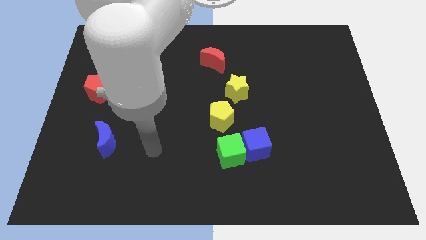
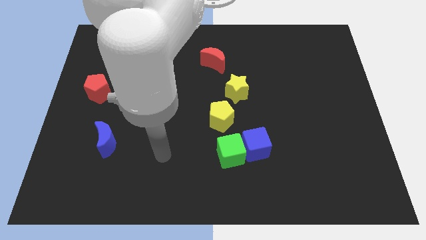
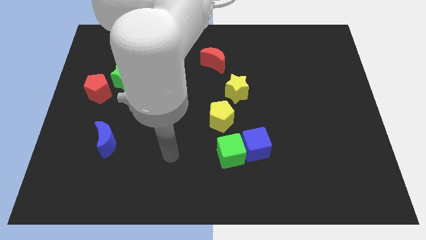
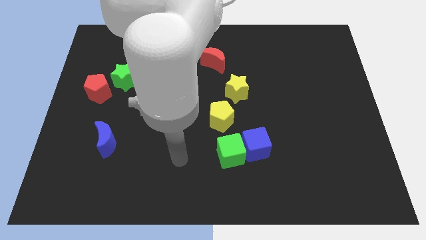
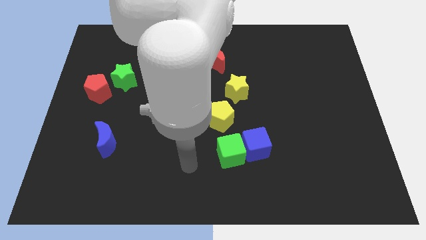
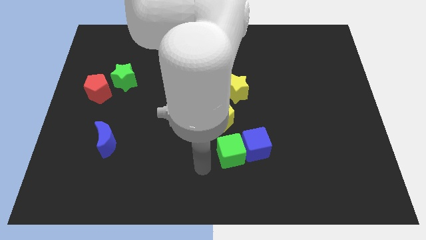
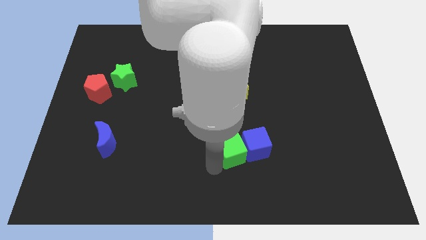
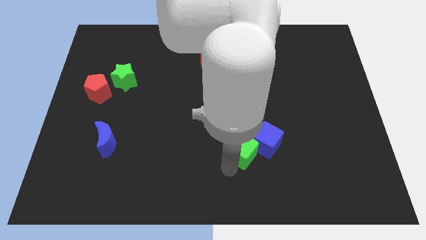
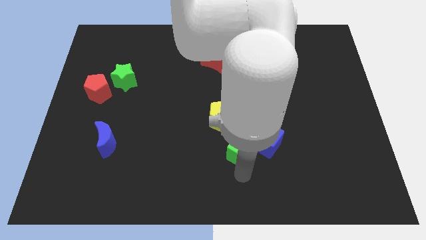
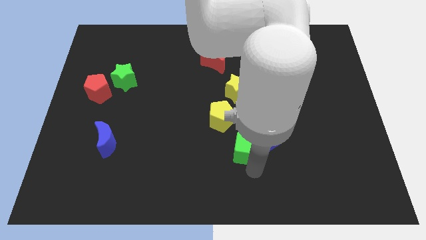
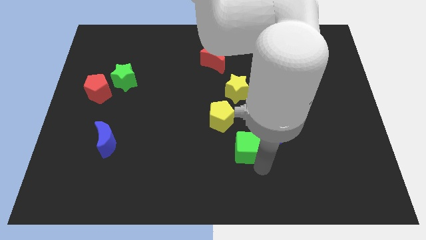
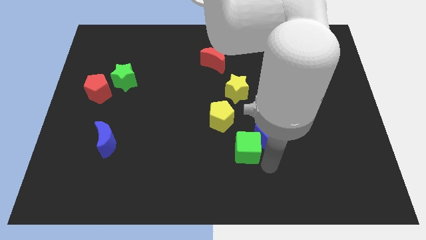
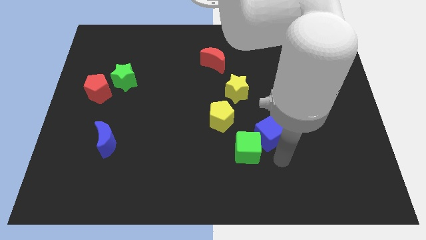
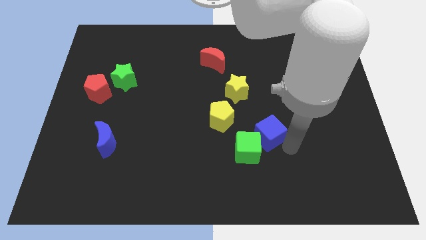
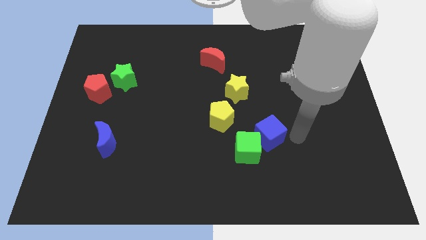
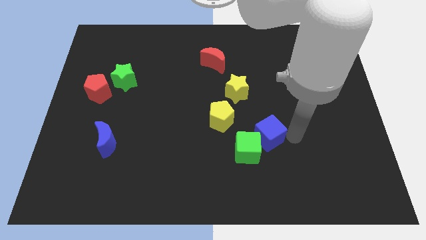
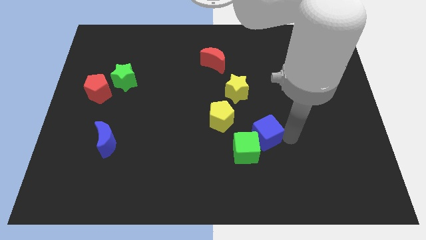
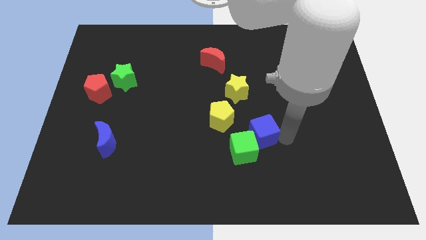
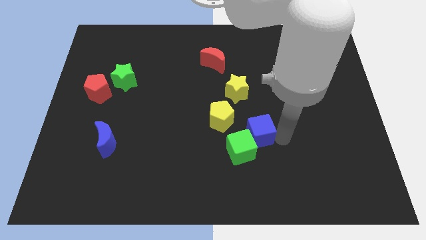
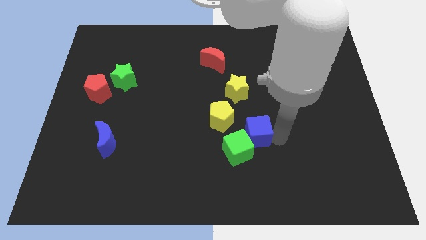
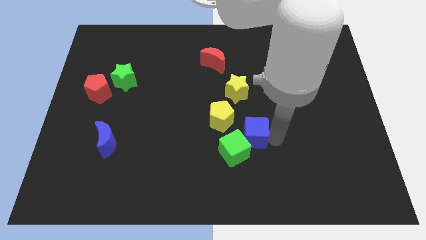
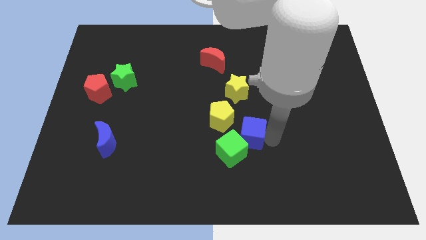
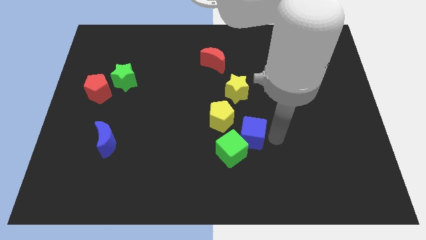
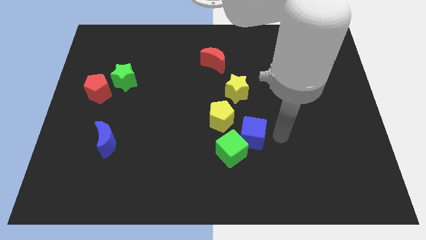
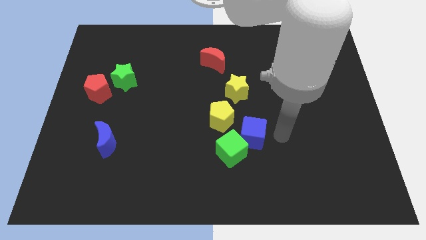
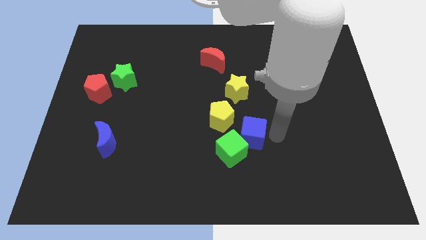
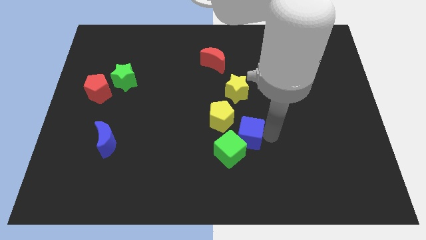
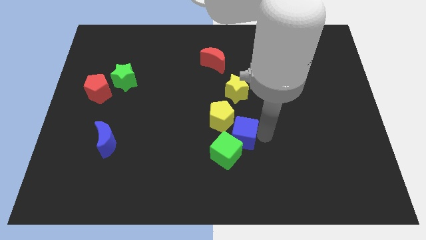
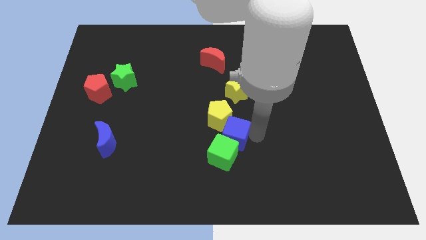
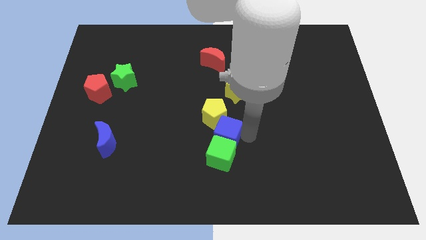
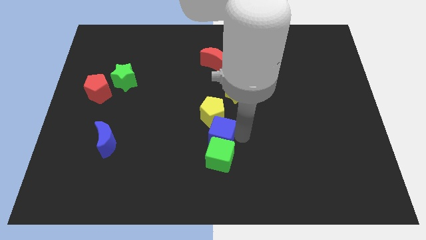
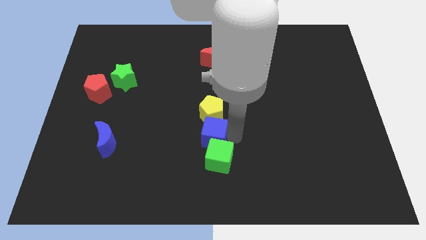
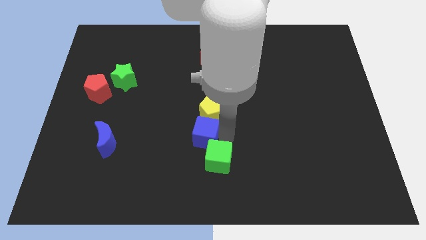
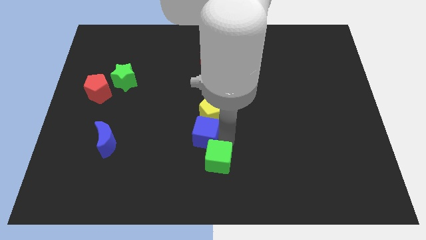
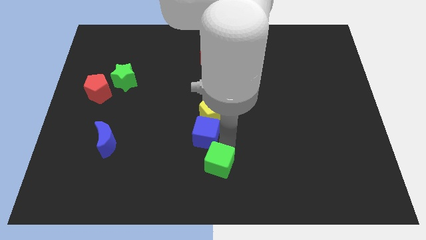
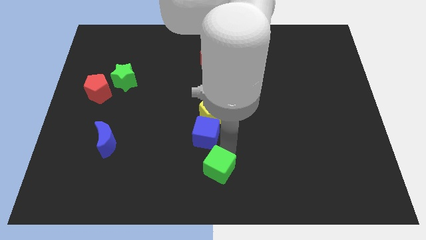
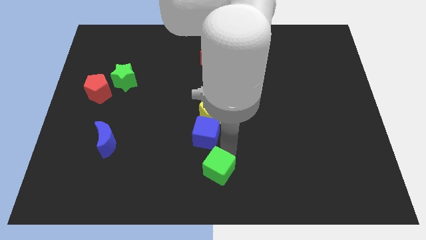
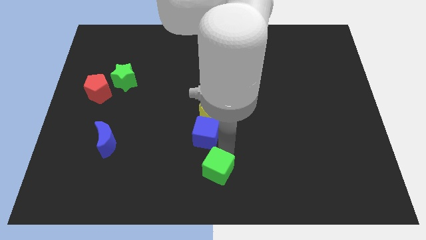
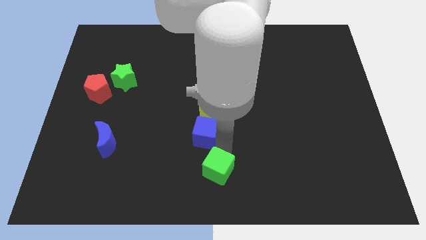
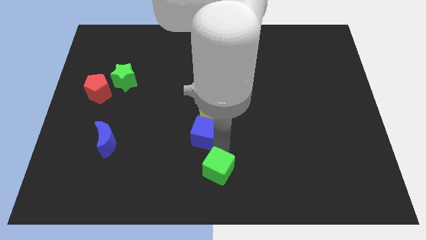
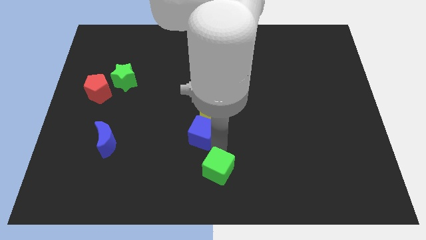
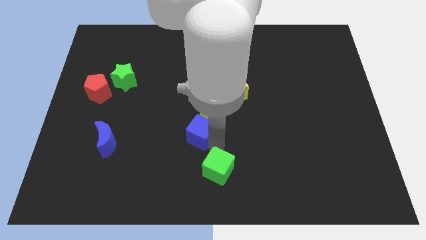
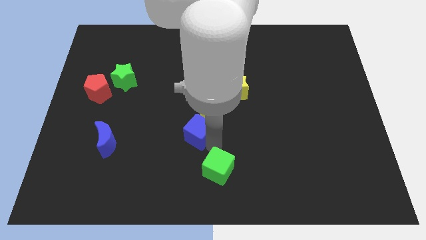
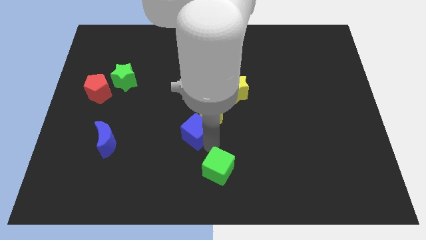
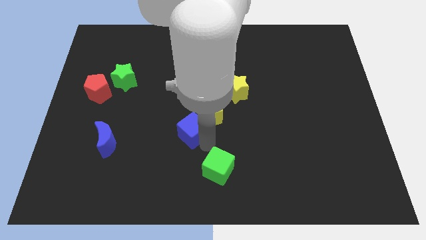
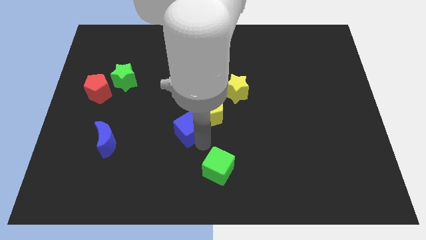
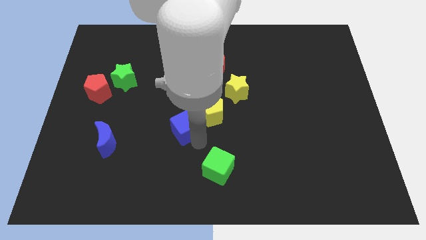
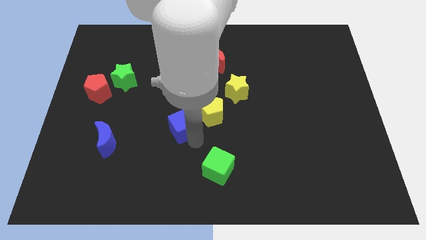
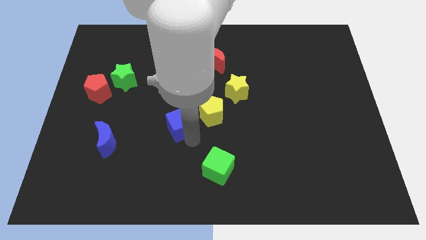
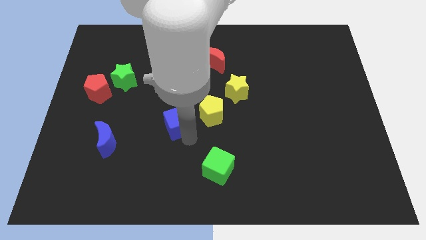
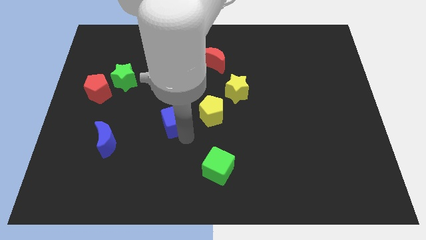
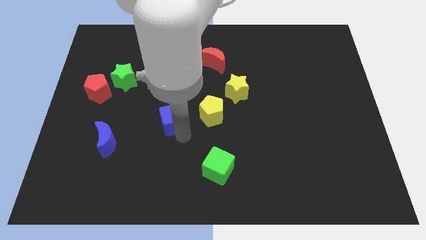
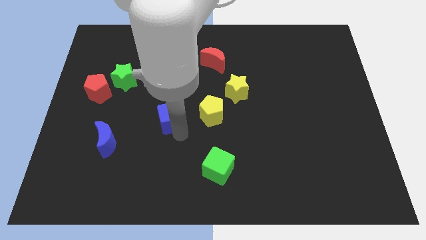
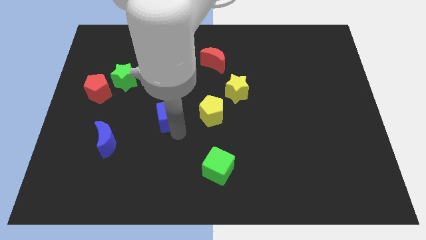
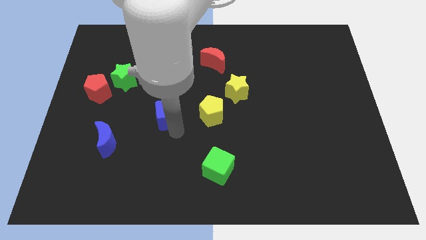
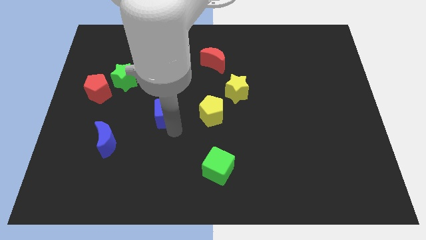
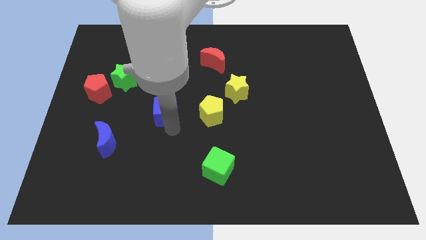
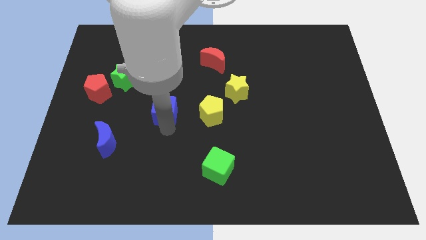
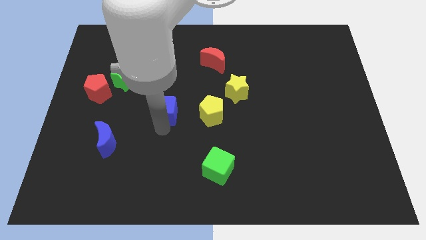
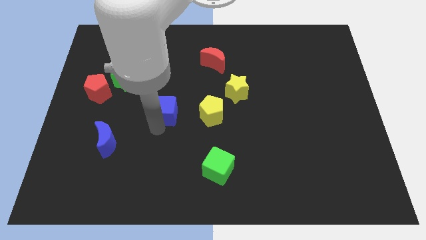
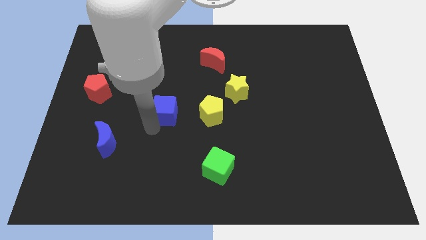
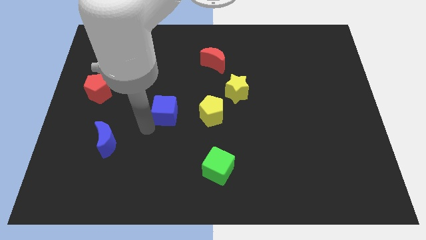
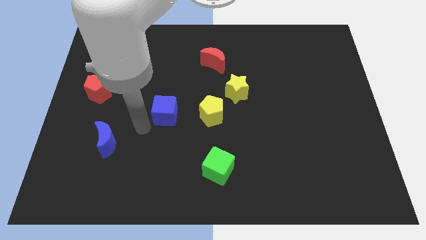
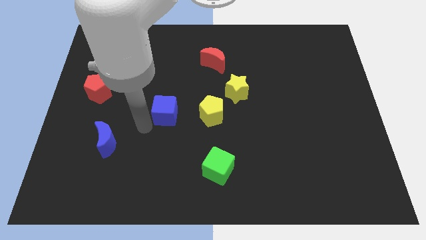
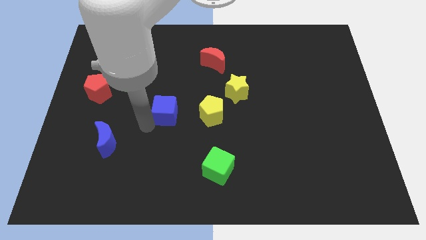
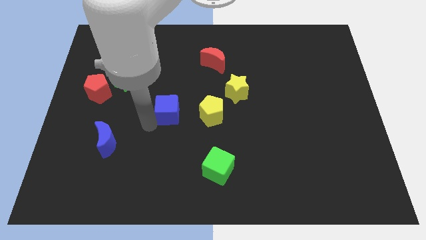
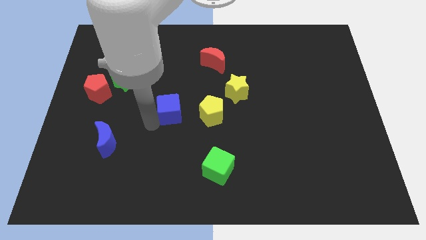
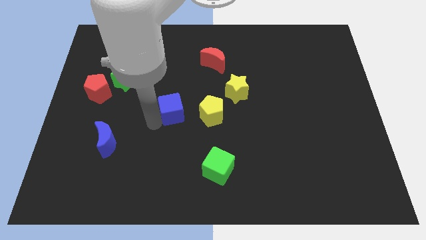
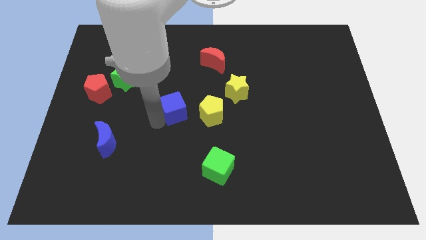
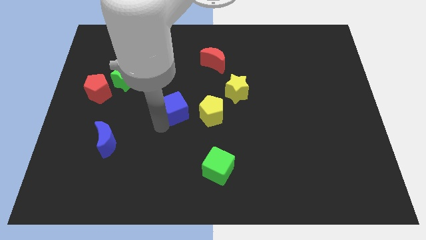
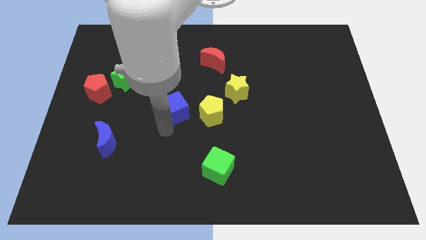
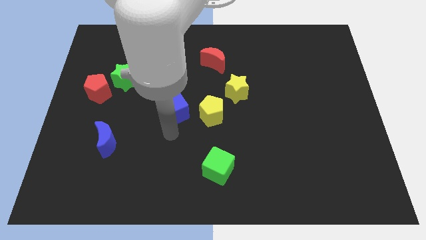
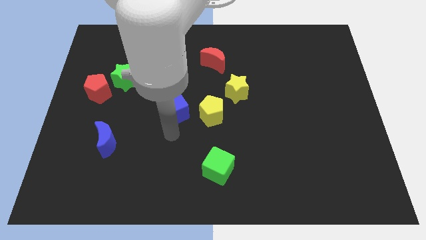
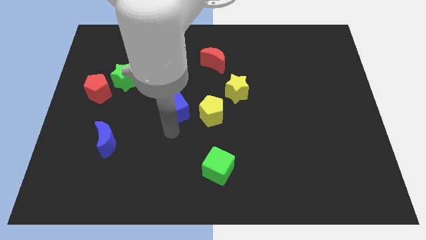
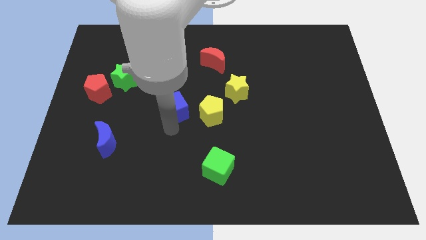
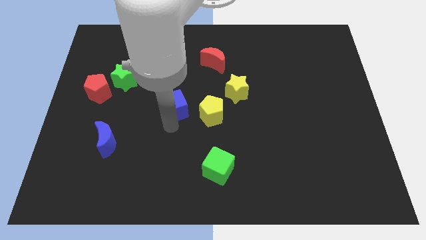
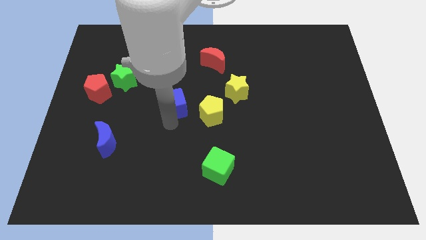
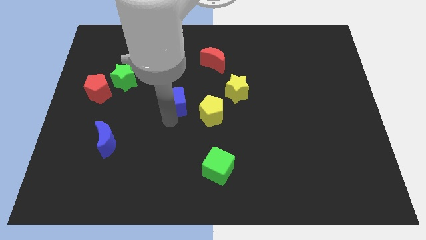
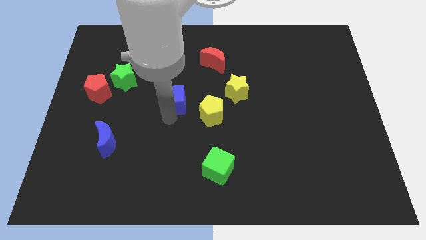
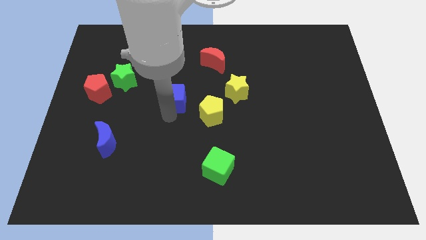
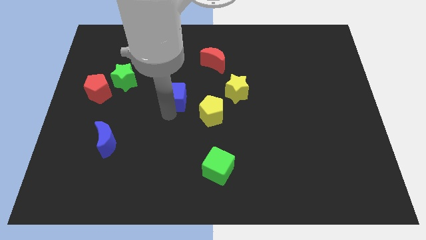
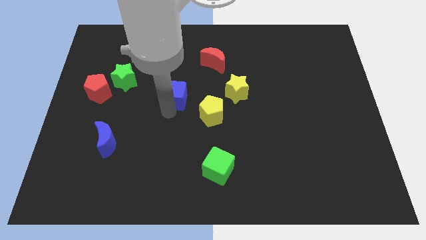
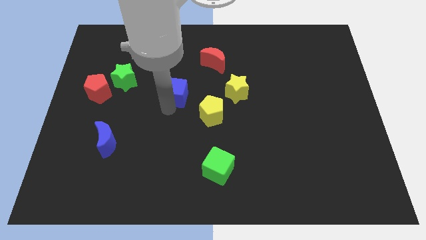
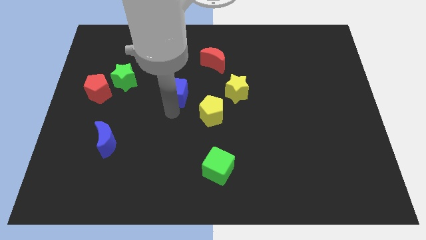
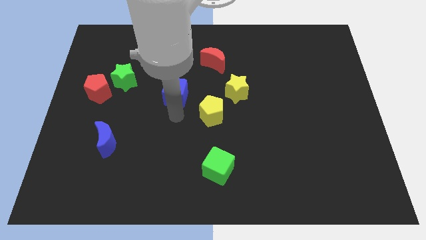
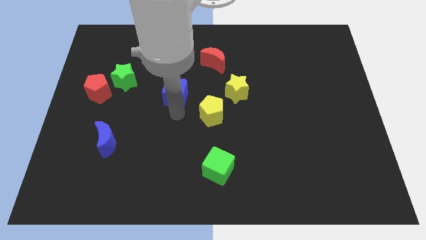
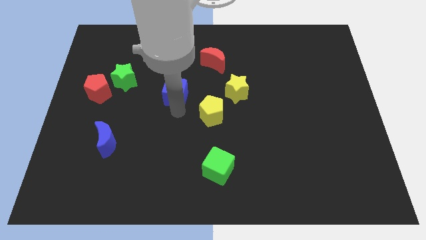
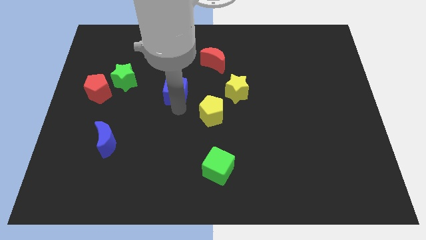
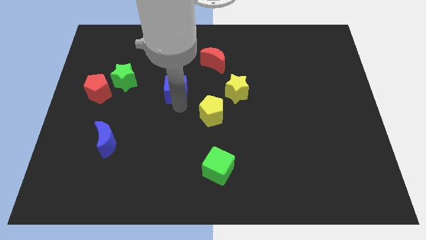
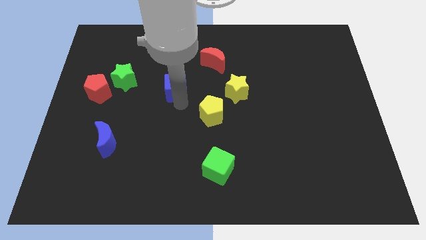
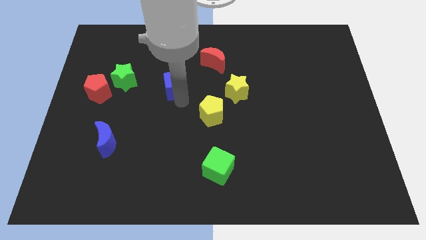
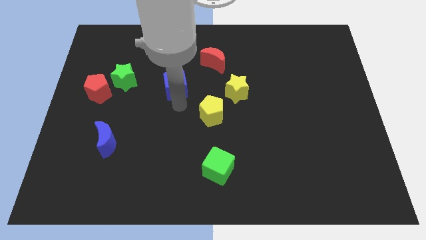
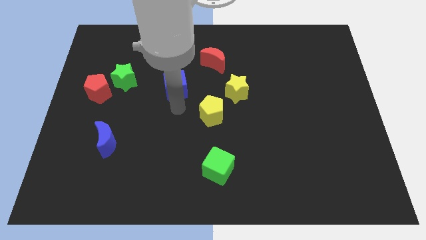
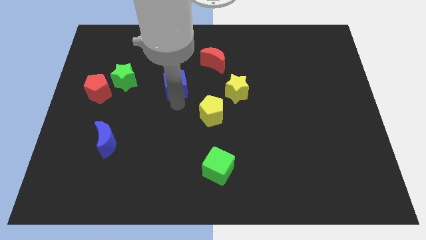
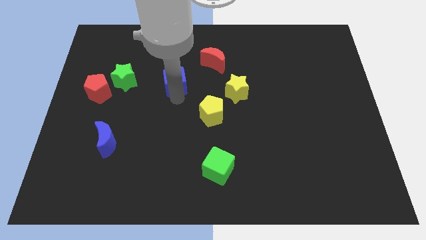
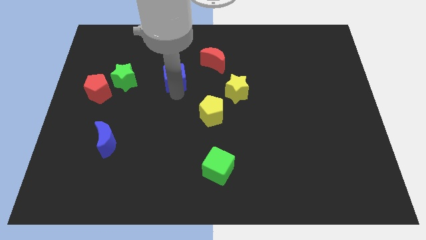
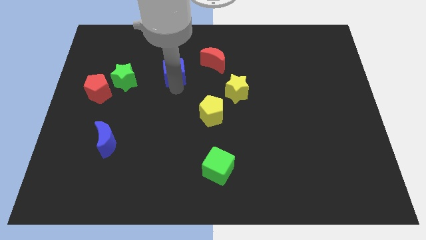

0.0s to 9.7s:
put the blue cube left of the red moon
